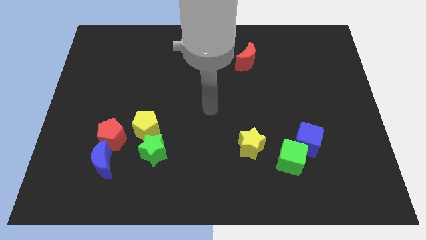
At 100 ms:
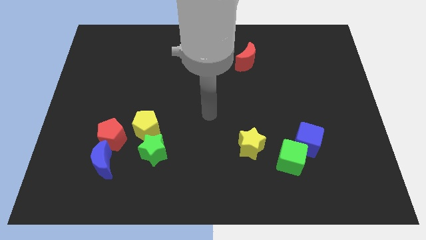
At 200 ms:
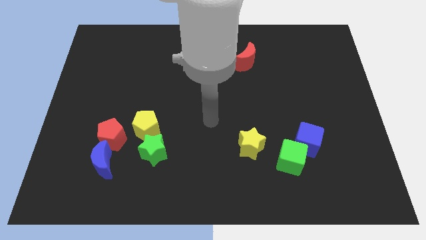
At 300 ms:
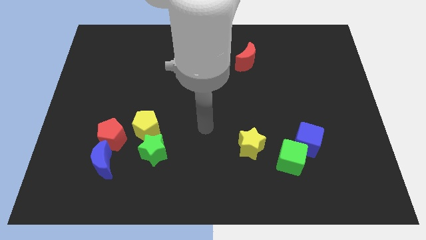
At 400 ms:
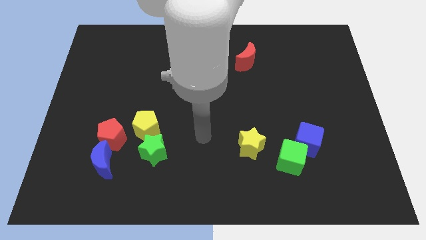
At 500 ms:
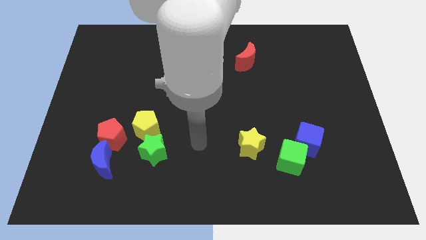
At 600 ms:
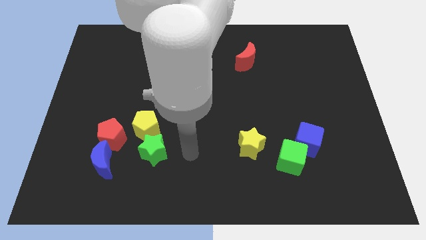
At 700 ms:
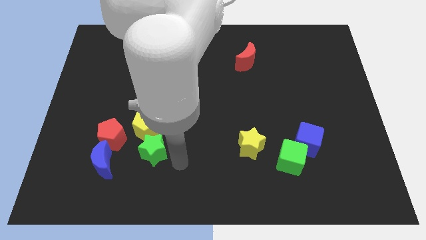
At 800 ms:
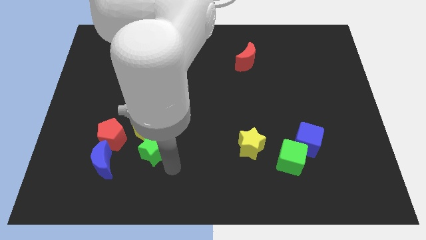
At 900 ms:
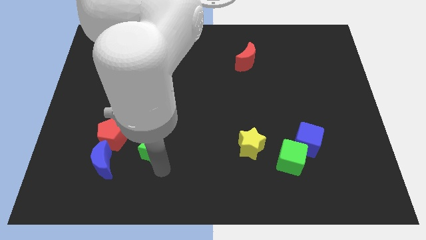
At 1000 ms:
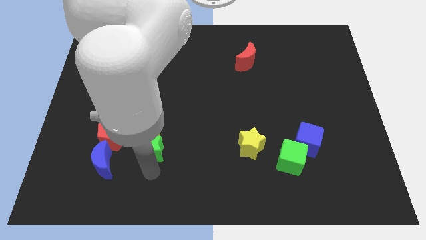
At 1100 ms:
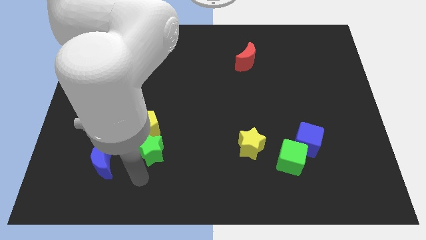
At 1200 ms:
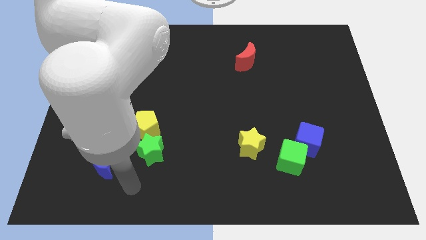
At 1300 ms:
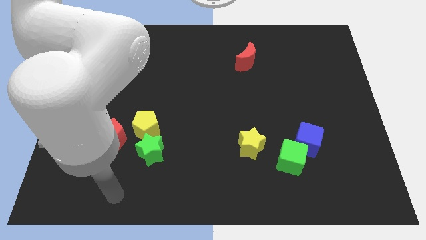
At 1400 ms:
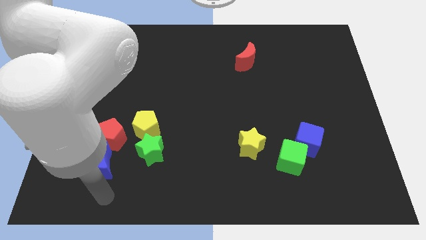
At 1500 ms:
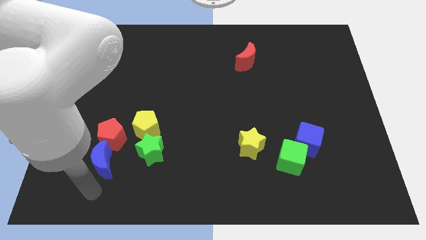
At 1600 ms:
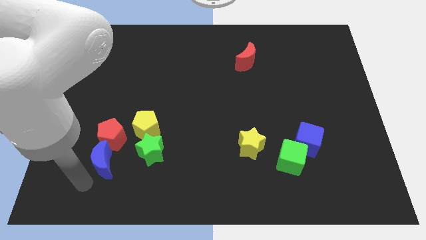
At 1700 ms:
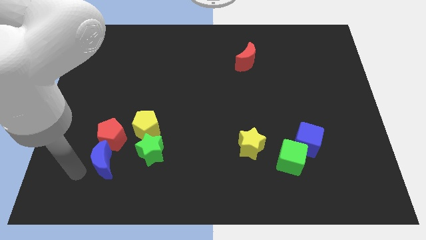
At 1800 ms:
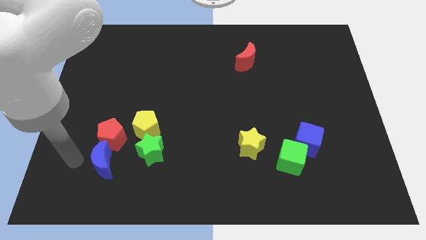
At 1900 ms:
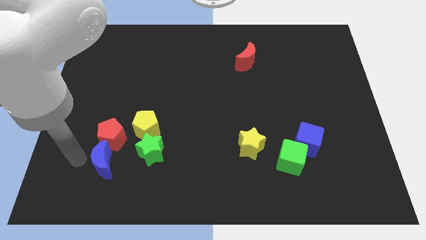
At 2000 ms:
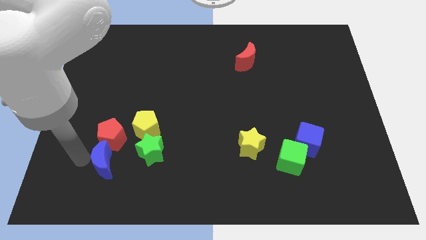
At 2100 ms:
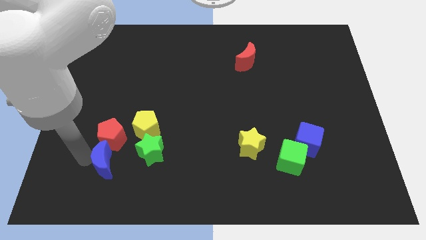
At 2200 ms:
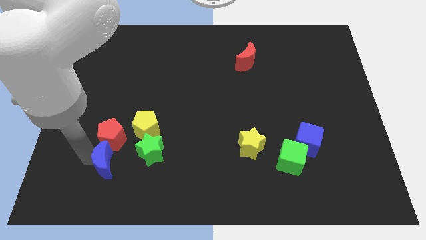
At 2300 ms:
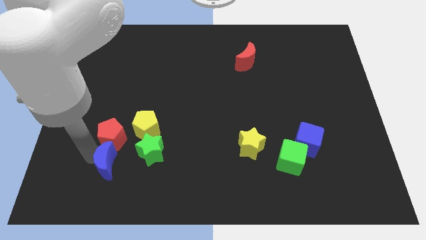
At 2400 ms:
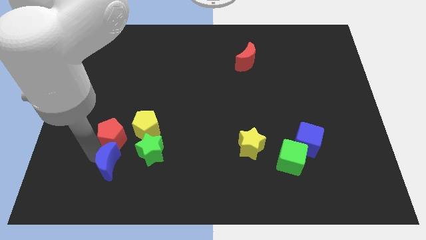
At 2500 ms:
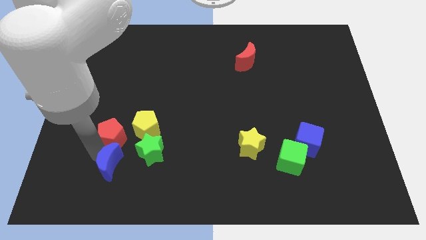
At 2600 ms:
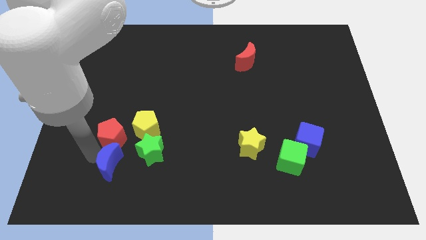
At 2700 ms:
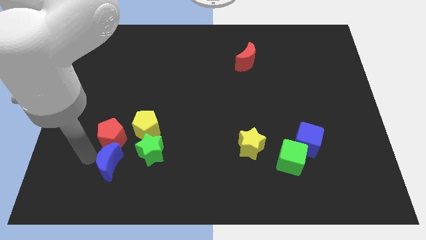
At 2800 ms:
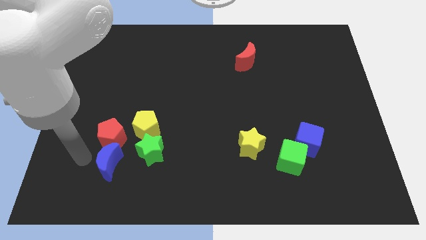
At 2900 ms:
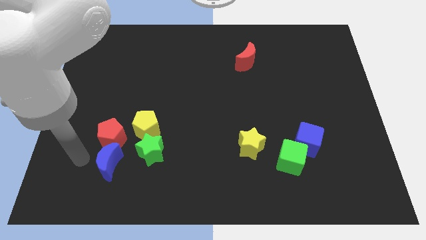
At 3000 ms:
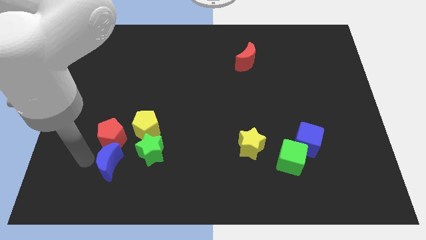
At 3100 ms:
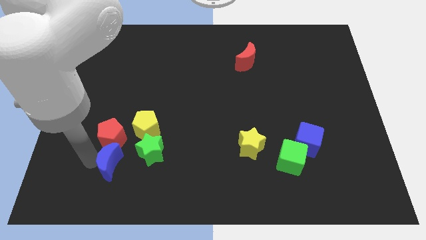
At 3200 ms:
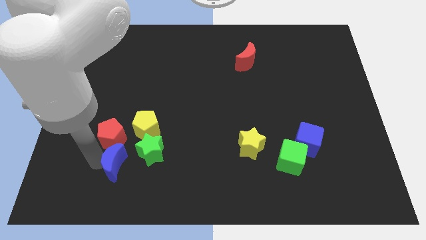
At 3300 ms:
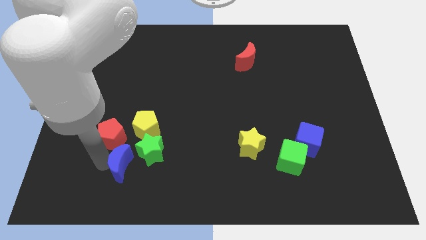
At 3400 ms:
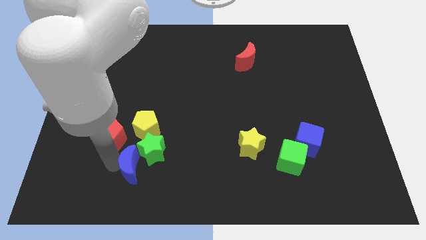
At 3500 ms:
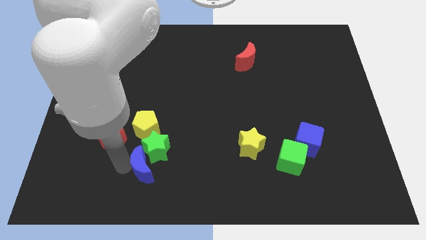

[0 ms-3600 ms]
slide the blue moon a little bit to the right

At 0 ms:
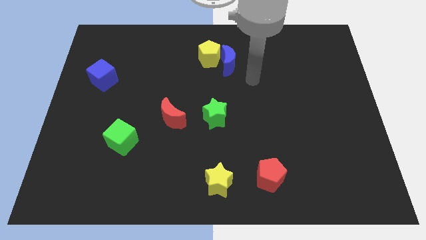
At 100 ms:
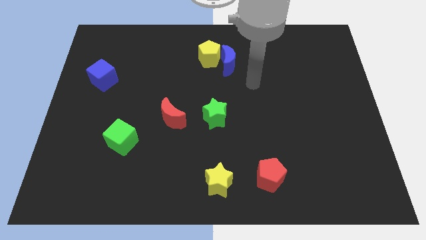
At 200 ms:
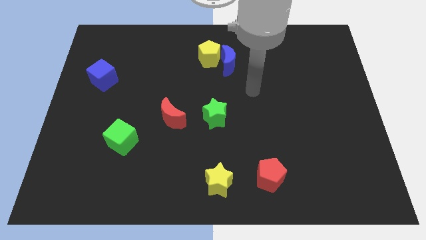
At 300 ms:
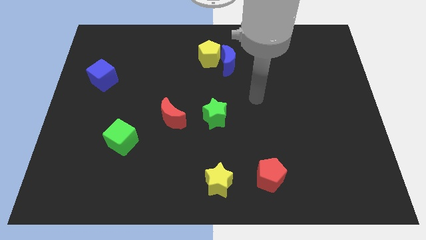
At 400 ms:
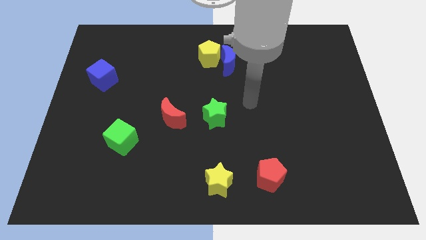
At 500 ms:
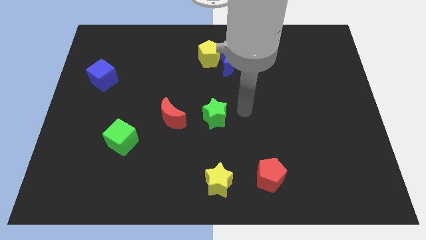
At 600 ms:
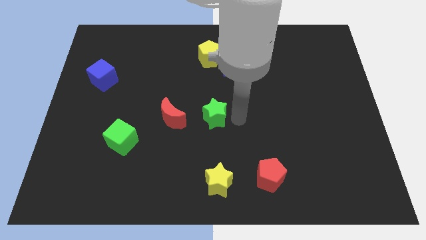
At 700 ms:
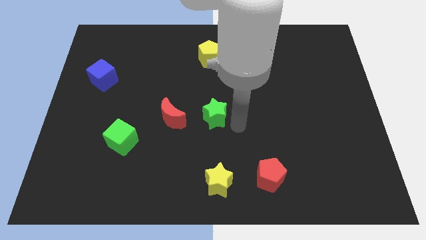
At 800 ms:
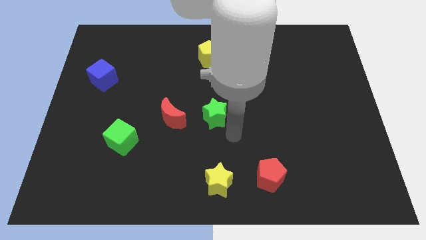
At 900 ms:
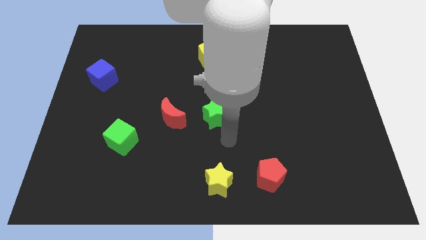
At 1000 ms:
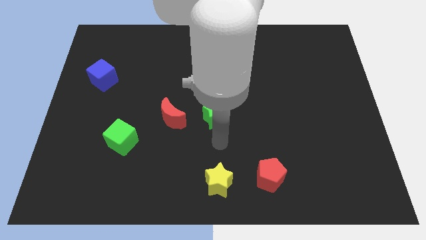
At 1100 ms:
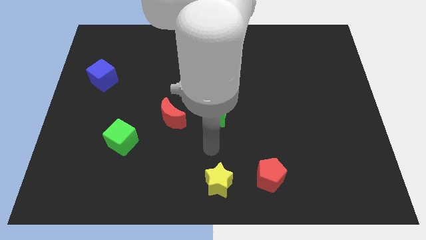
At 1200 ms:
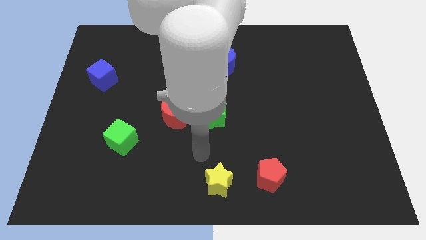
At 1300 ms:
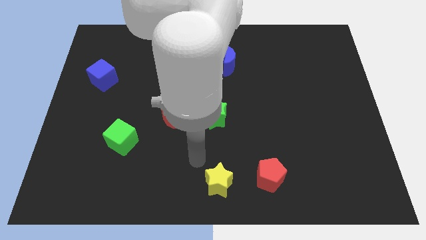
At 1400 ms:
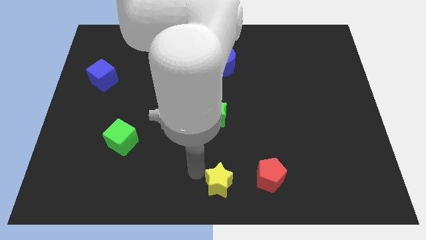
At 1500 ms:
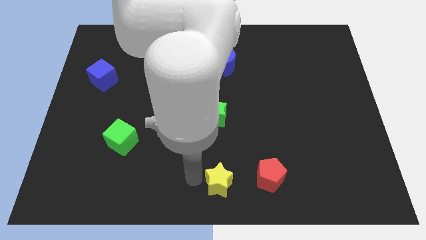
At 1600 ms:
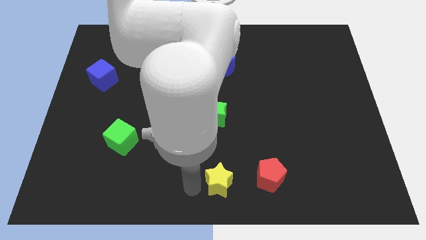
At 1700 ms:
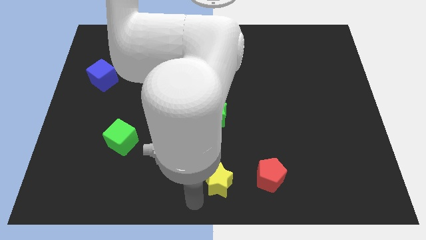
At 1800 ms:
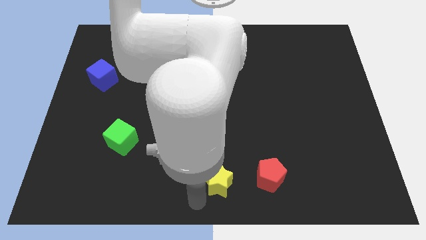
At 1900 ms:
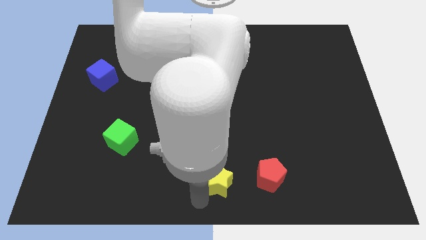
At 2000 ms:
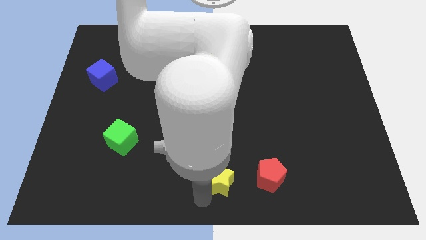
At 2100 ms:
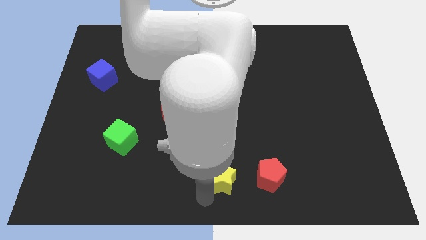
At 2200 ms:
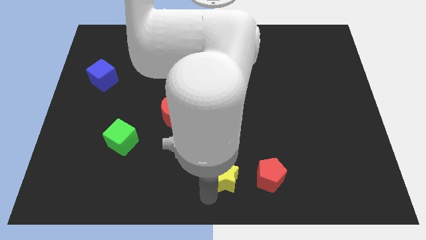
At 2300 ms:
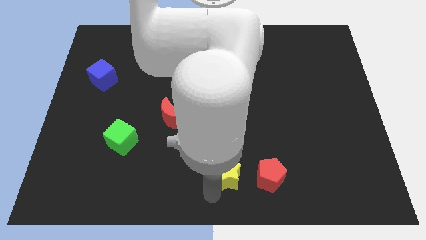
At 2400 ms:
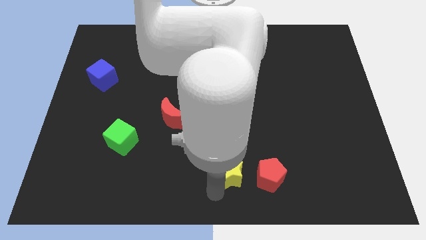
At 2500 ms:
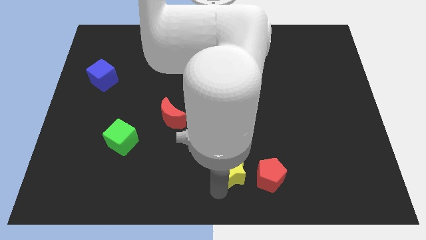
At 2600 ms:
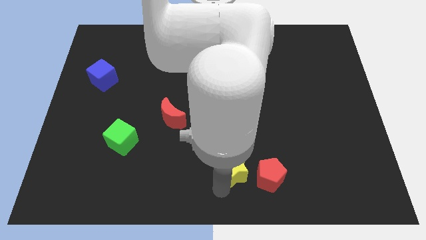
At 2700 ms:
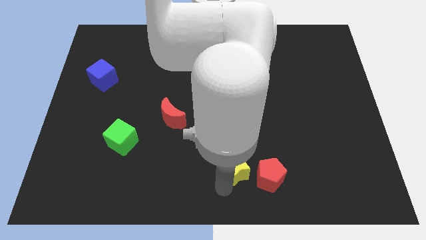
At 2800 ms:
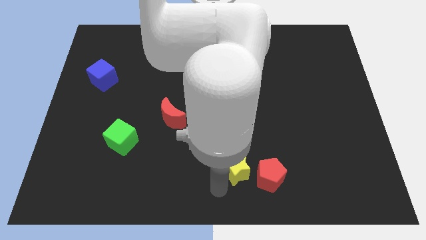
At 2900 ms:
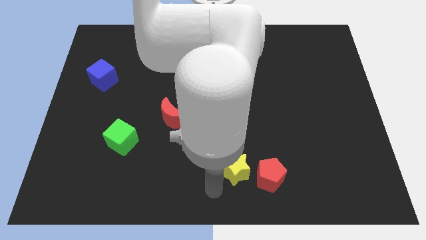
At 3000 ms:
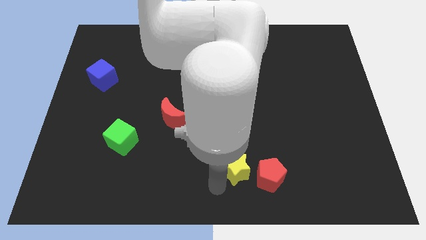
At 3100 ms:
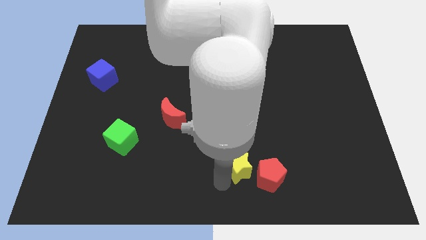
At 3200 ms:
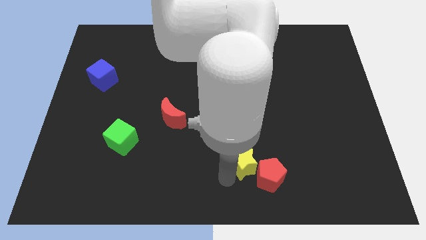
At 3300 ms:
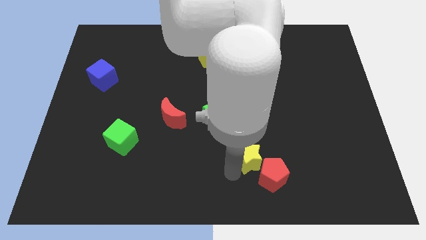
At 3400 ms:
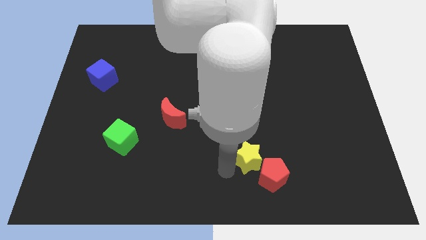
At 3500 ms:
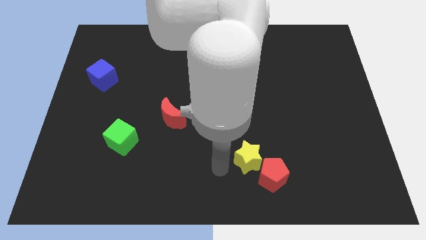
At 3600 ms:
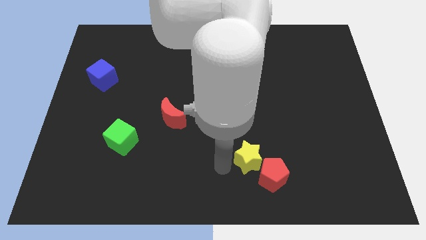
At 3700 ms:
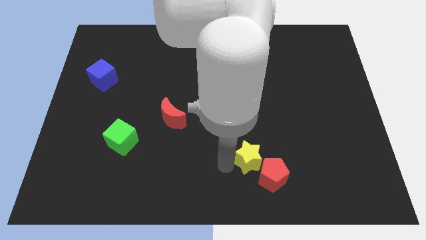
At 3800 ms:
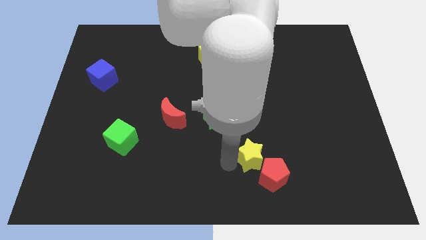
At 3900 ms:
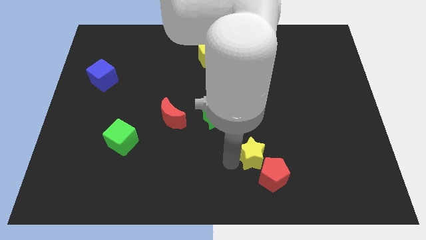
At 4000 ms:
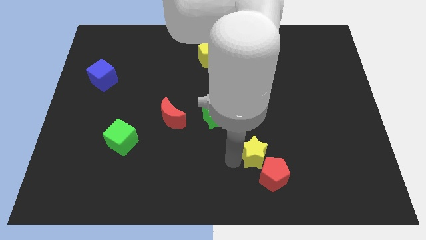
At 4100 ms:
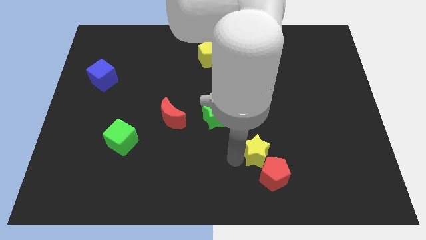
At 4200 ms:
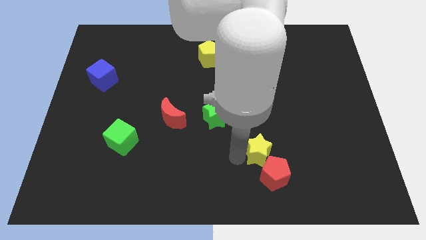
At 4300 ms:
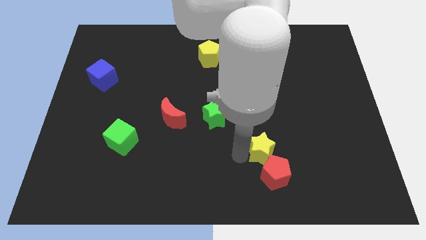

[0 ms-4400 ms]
slightly push the yellow star to the right
